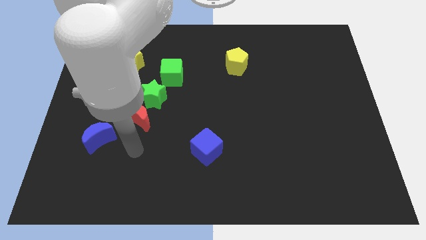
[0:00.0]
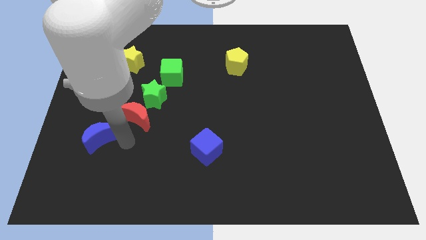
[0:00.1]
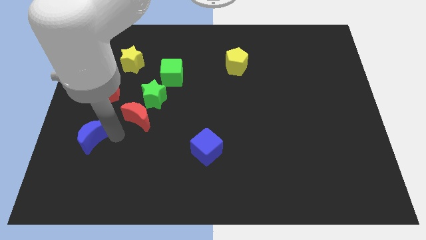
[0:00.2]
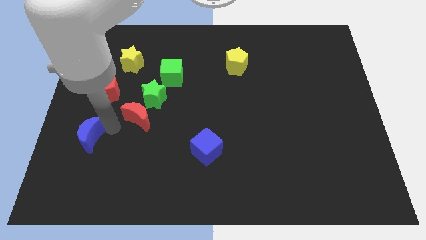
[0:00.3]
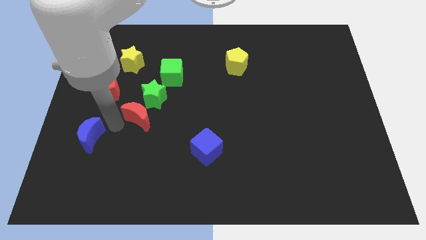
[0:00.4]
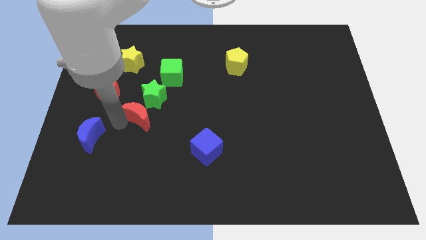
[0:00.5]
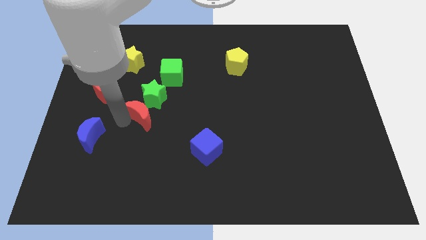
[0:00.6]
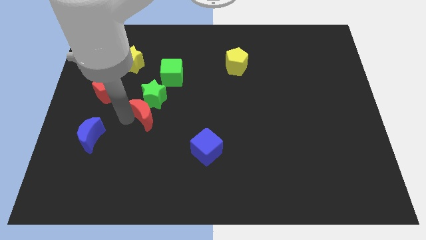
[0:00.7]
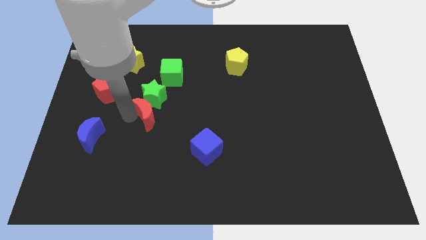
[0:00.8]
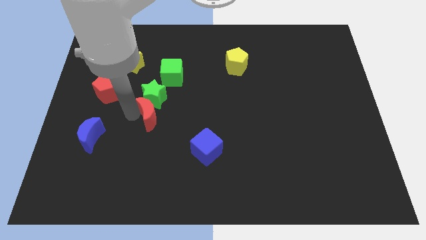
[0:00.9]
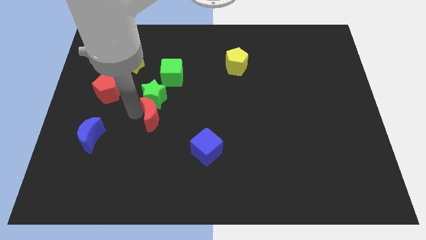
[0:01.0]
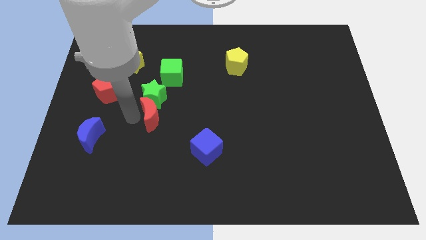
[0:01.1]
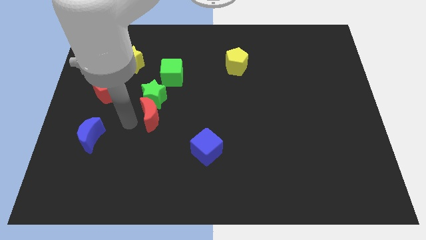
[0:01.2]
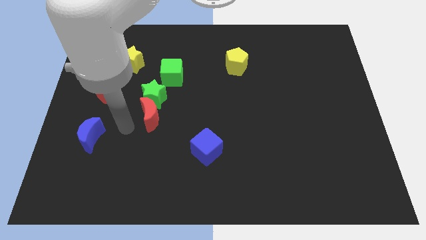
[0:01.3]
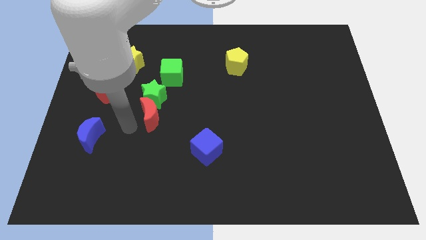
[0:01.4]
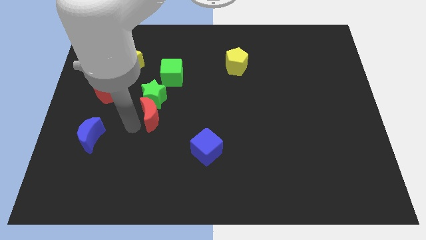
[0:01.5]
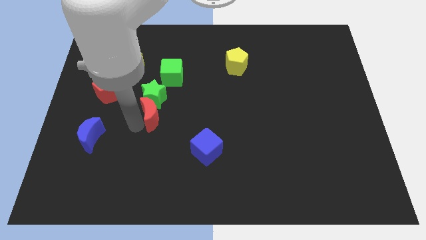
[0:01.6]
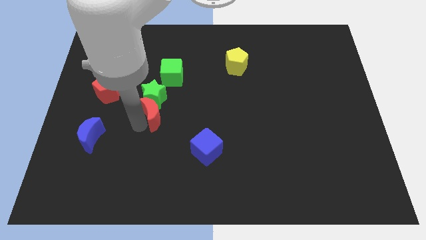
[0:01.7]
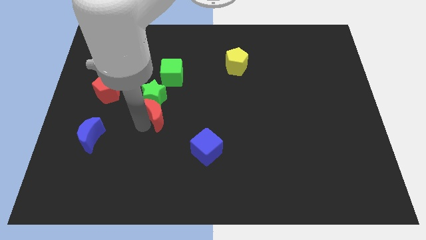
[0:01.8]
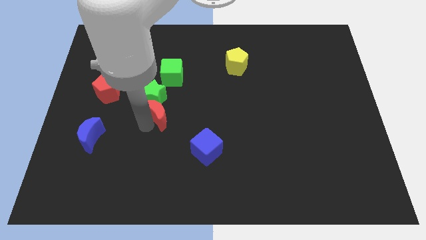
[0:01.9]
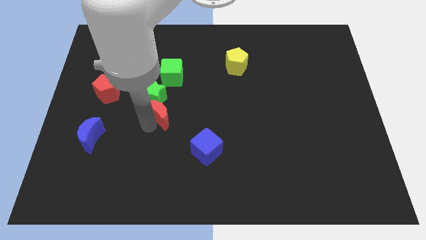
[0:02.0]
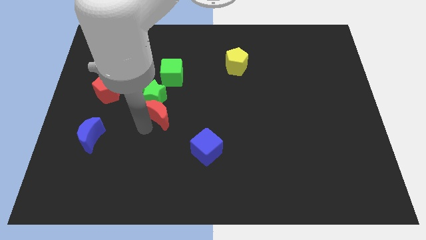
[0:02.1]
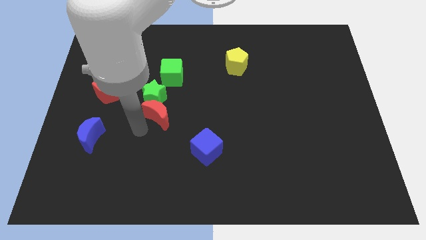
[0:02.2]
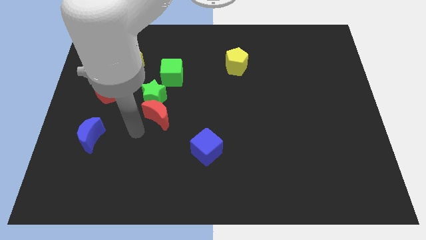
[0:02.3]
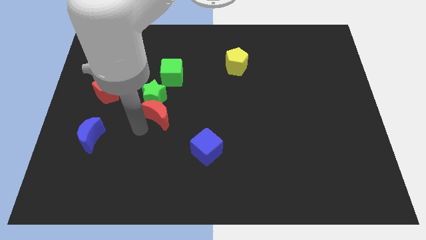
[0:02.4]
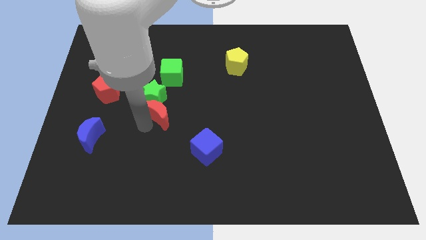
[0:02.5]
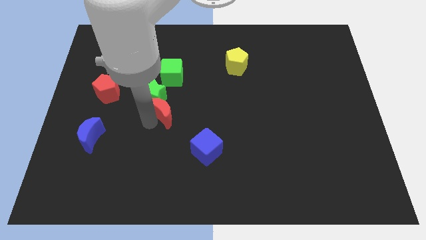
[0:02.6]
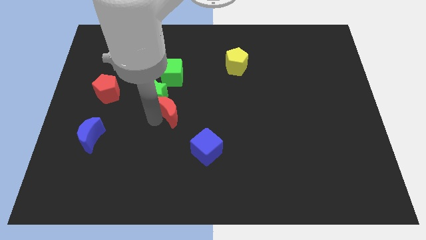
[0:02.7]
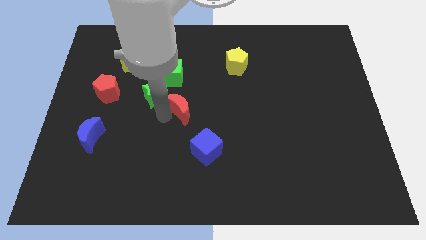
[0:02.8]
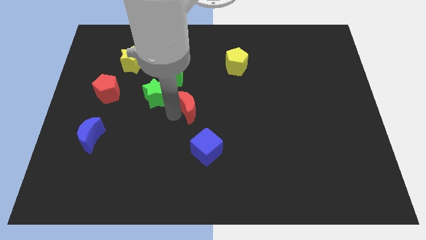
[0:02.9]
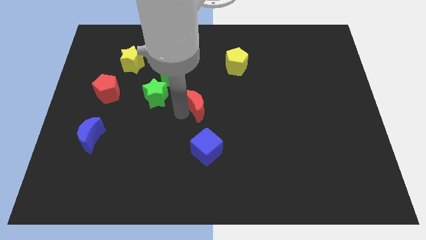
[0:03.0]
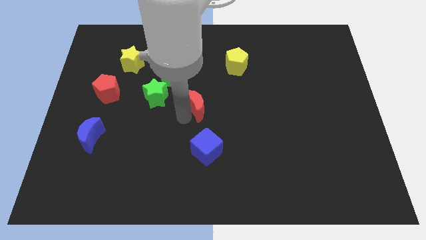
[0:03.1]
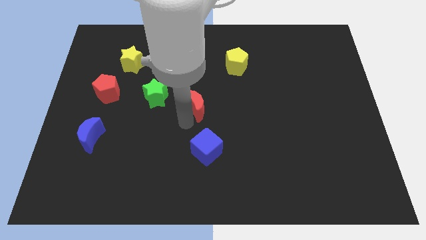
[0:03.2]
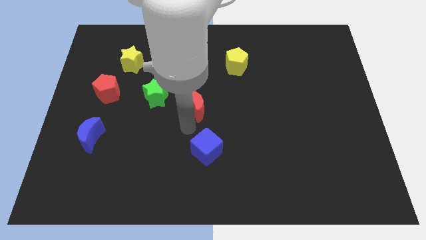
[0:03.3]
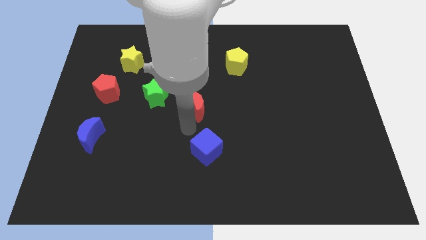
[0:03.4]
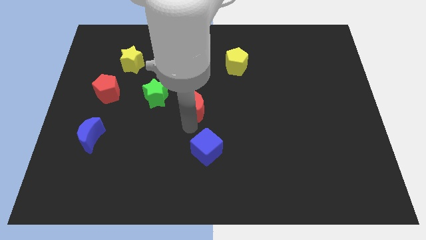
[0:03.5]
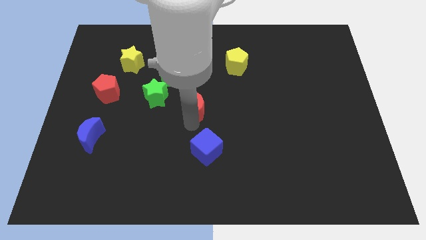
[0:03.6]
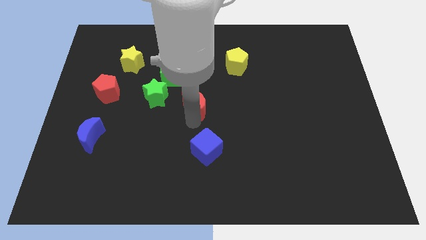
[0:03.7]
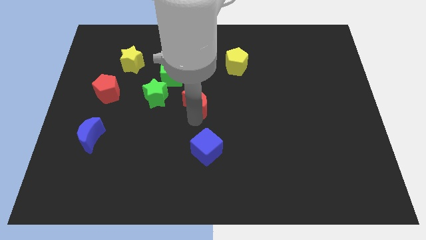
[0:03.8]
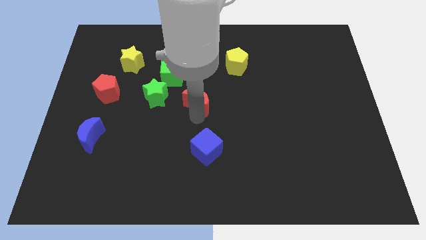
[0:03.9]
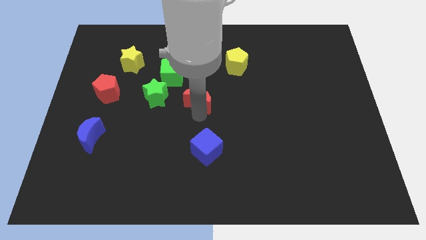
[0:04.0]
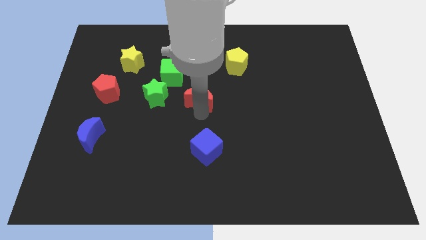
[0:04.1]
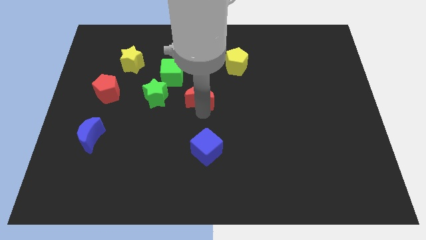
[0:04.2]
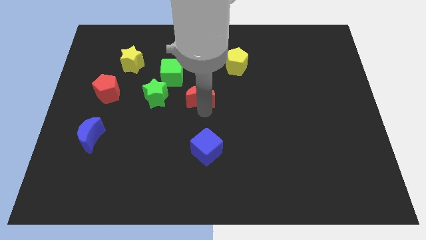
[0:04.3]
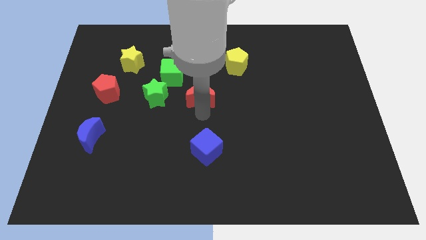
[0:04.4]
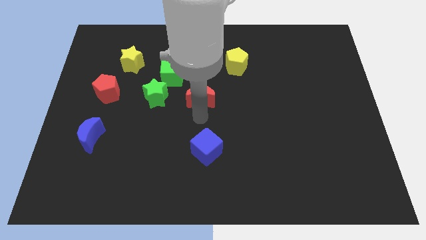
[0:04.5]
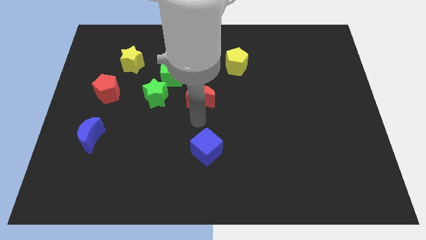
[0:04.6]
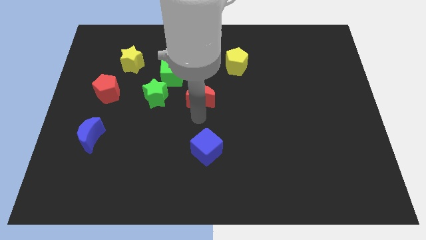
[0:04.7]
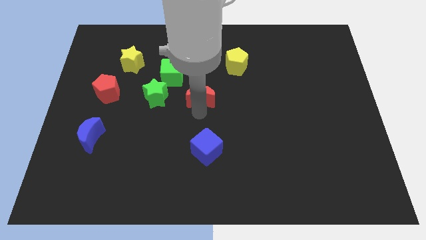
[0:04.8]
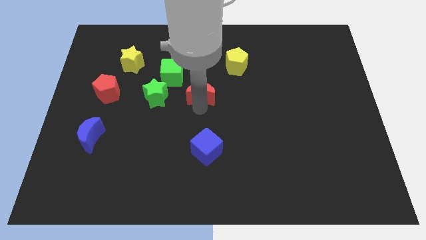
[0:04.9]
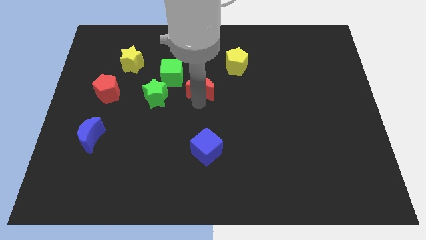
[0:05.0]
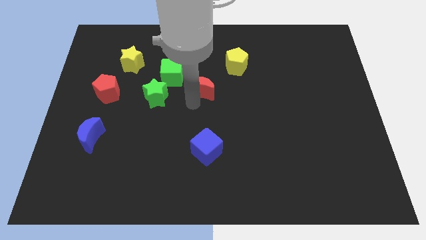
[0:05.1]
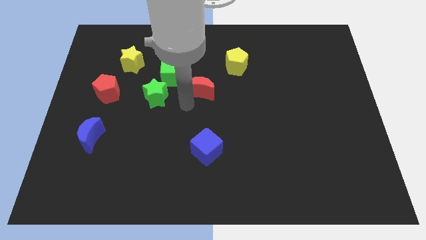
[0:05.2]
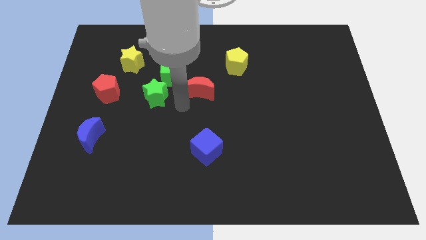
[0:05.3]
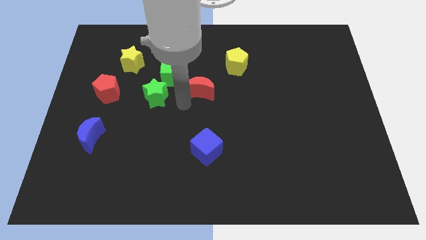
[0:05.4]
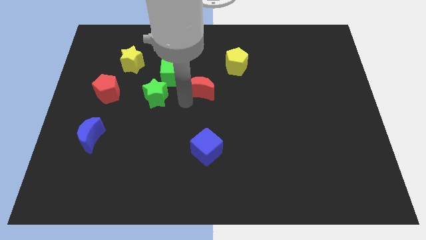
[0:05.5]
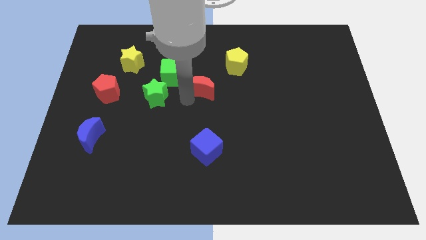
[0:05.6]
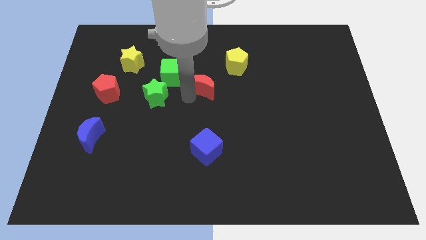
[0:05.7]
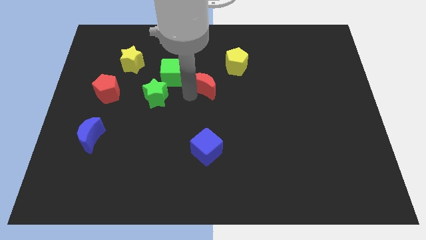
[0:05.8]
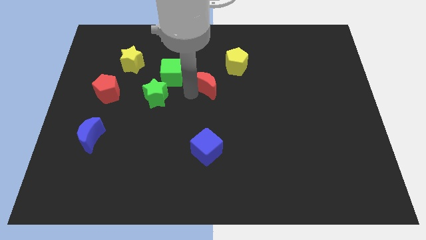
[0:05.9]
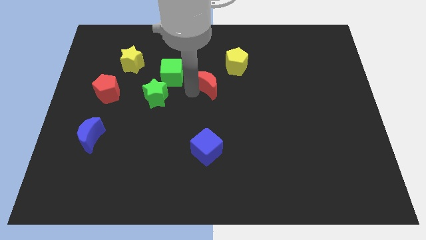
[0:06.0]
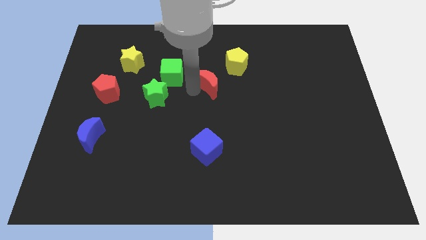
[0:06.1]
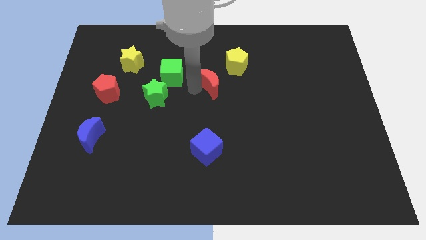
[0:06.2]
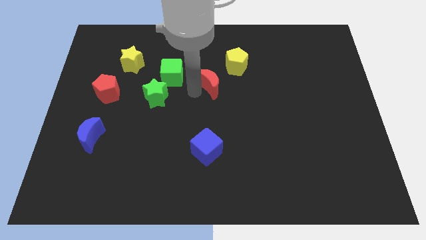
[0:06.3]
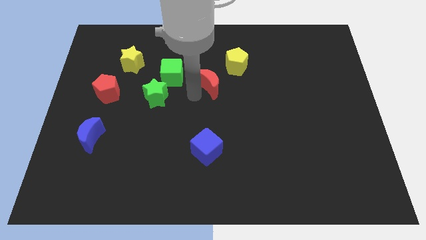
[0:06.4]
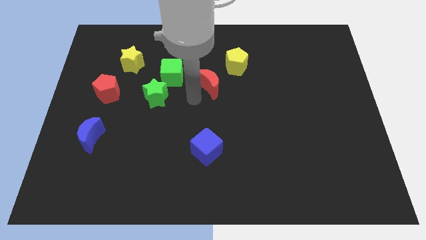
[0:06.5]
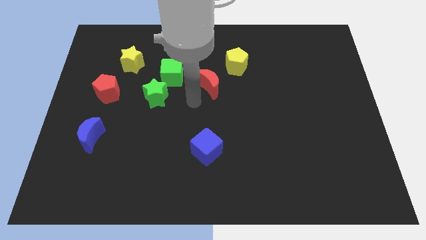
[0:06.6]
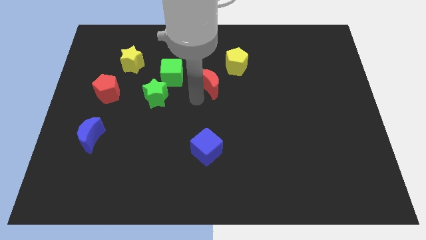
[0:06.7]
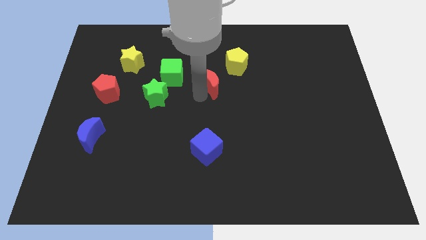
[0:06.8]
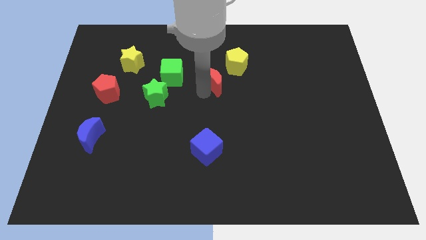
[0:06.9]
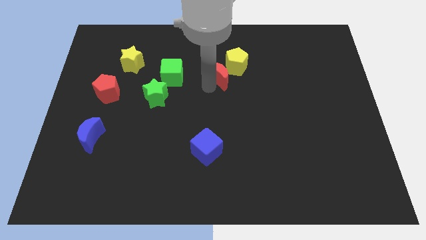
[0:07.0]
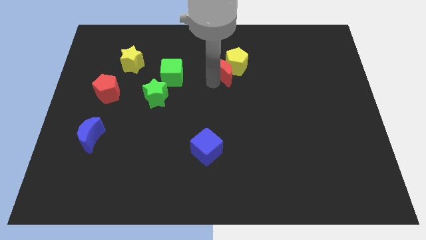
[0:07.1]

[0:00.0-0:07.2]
put the red moon next to the yellow pentagon
